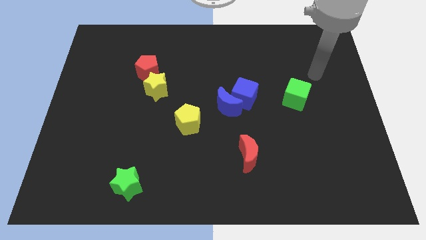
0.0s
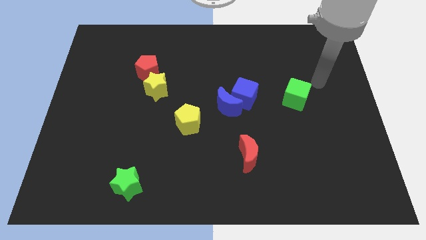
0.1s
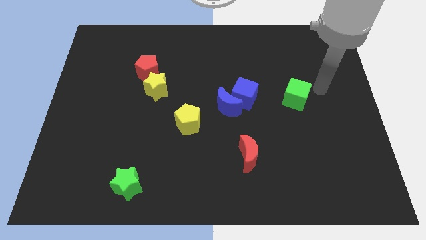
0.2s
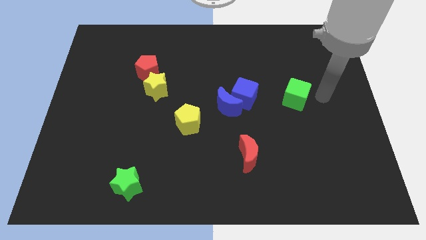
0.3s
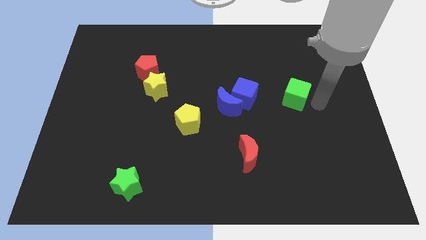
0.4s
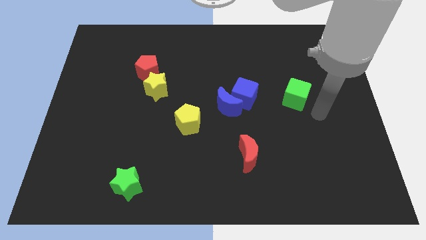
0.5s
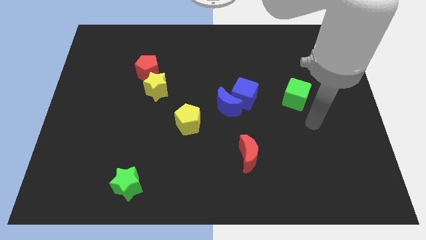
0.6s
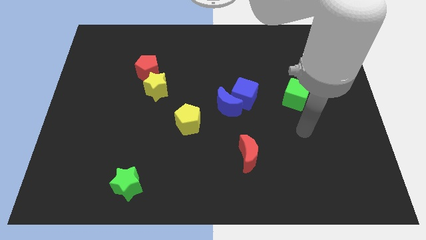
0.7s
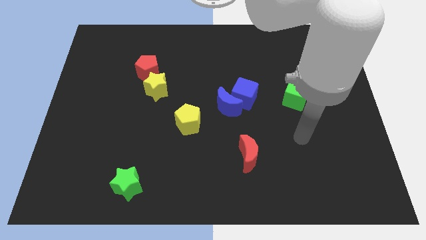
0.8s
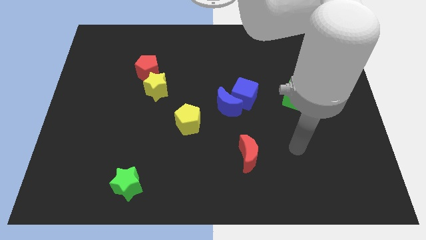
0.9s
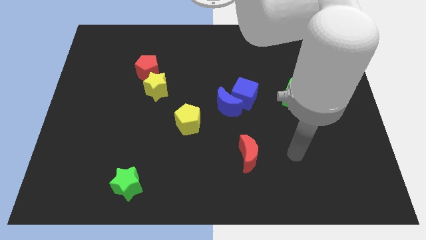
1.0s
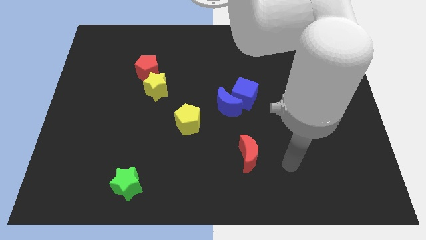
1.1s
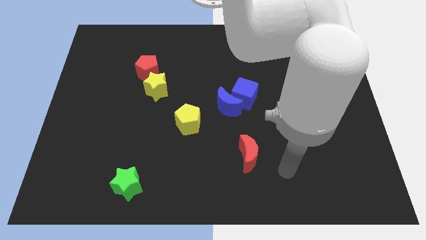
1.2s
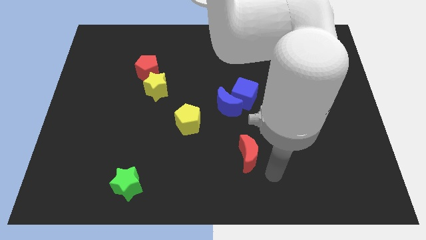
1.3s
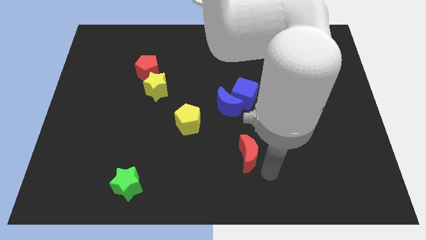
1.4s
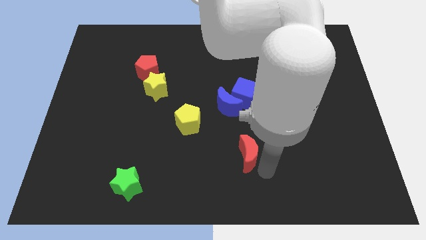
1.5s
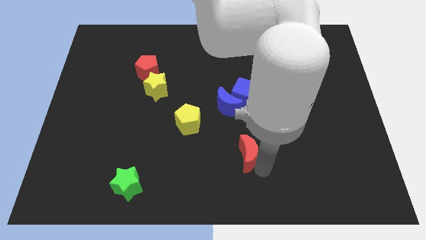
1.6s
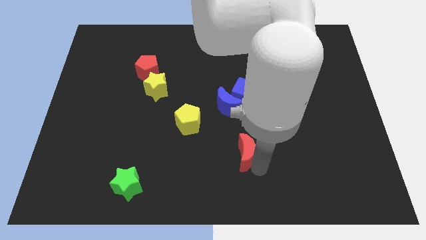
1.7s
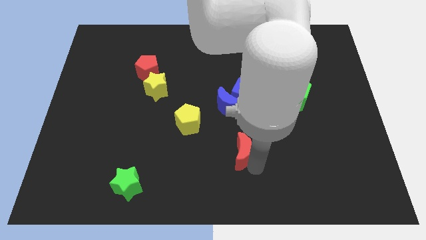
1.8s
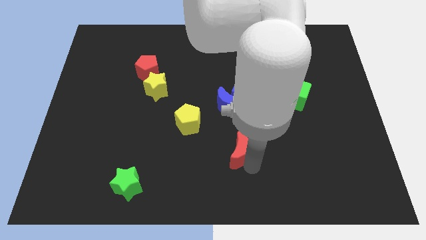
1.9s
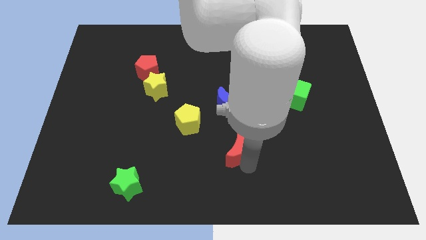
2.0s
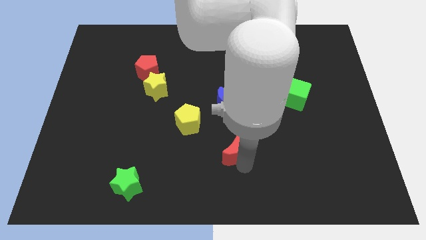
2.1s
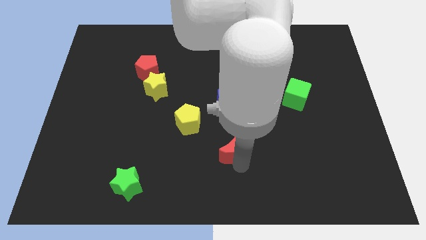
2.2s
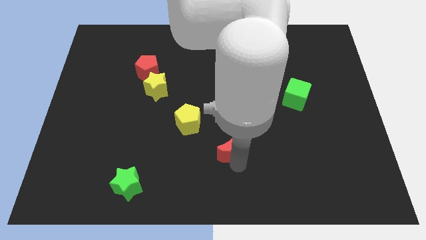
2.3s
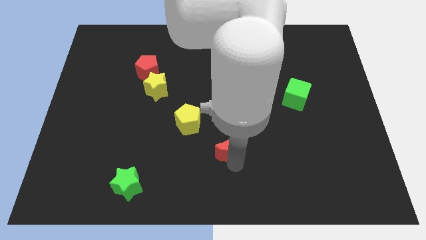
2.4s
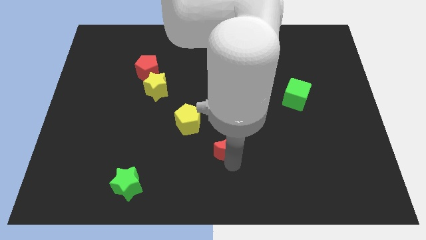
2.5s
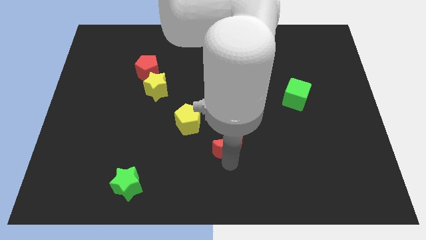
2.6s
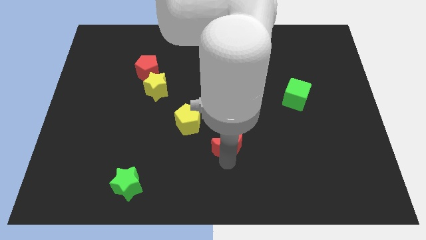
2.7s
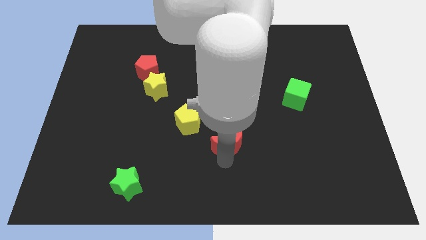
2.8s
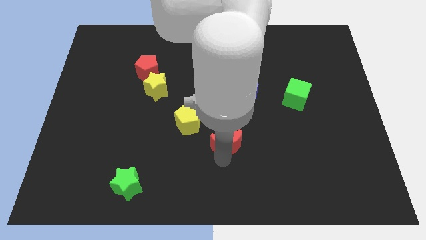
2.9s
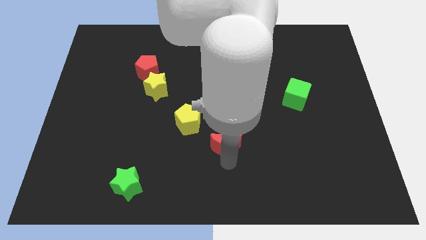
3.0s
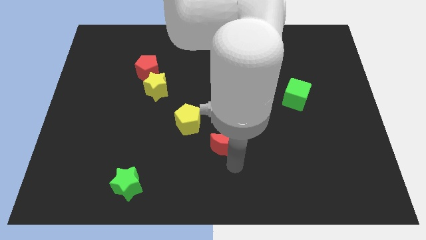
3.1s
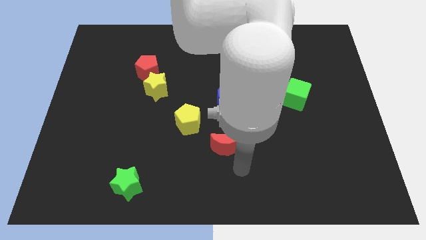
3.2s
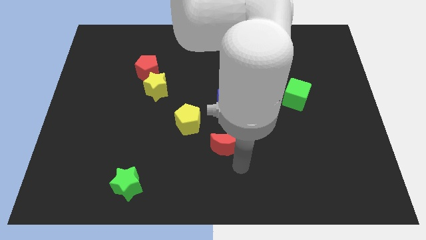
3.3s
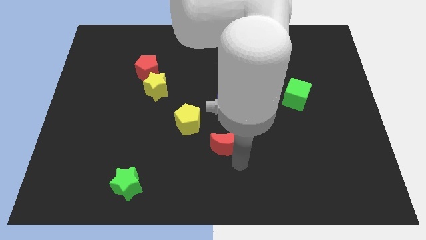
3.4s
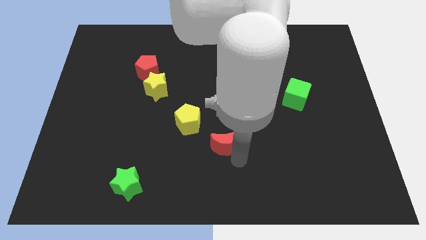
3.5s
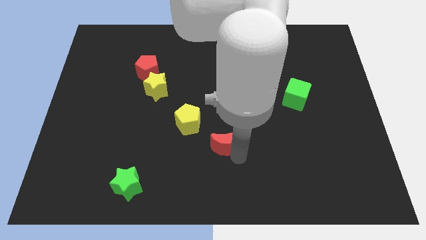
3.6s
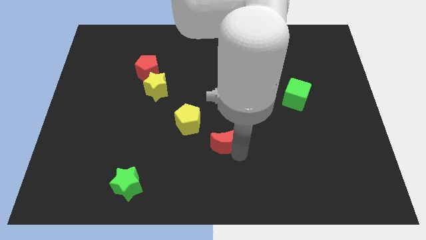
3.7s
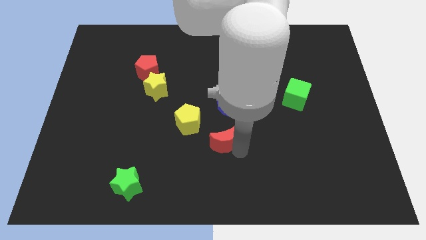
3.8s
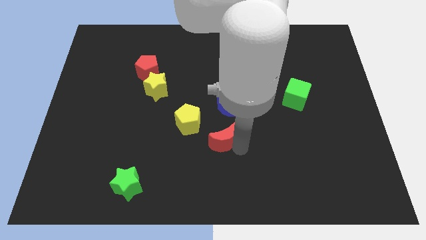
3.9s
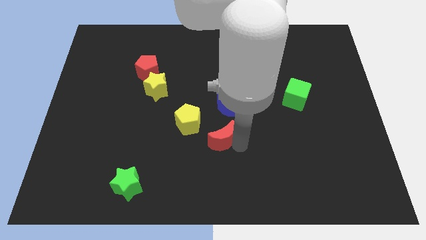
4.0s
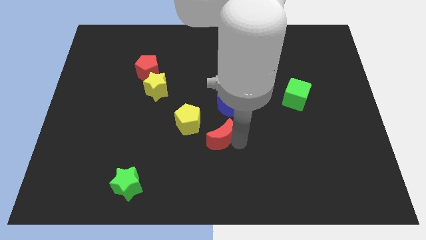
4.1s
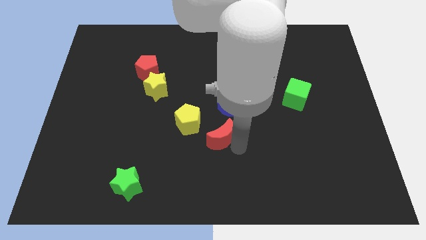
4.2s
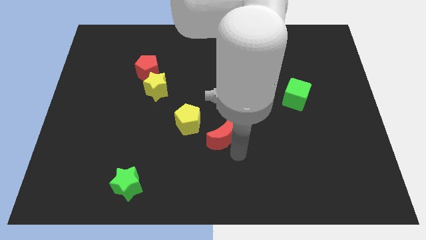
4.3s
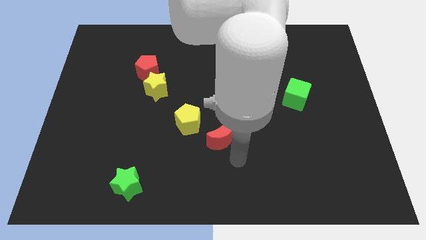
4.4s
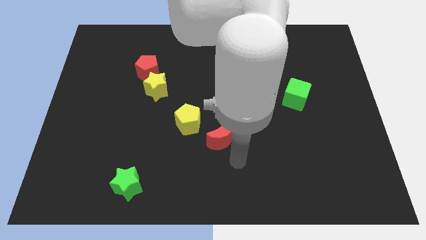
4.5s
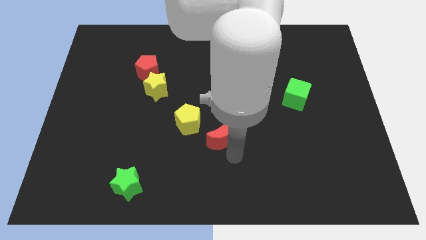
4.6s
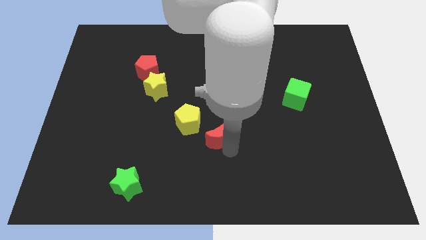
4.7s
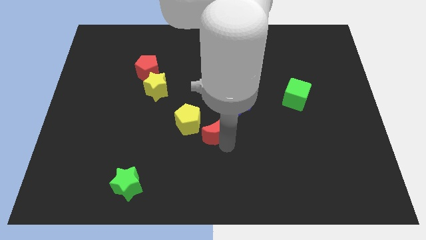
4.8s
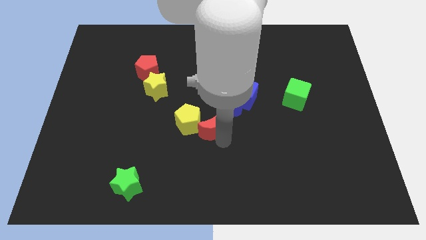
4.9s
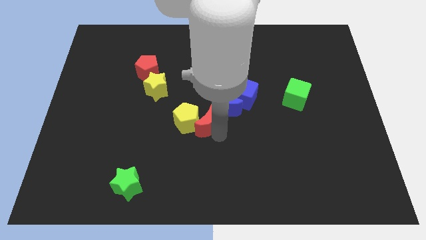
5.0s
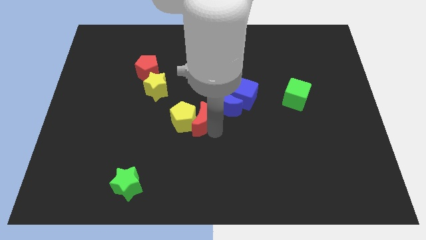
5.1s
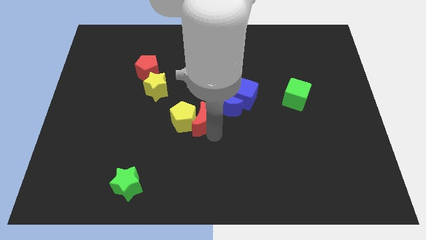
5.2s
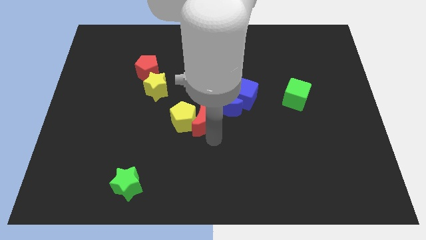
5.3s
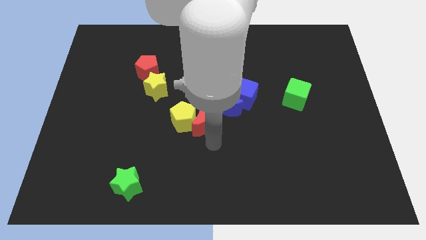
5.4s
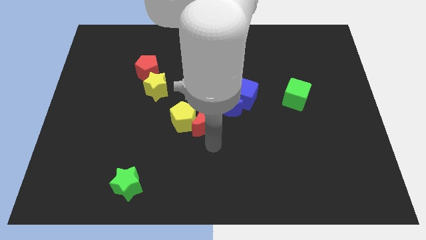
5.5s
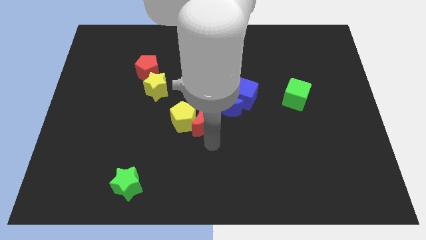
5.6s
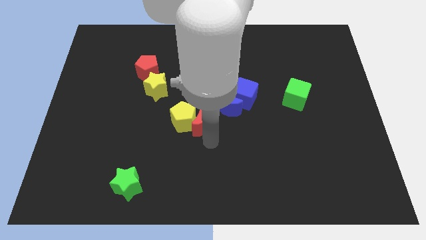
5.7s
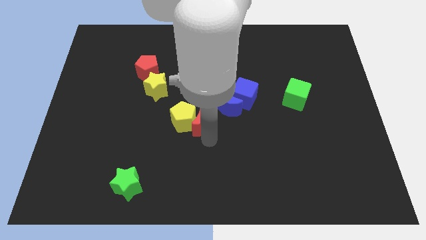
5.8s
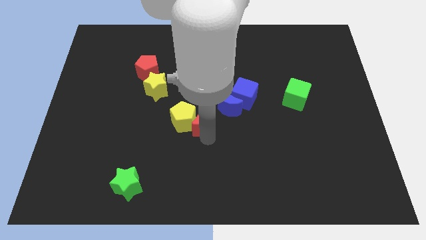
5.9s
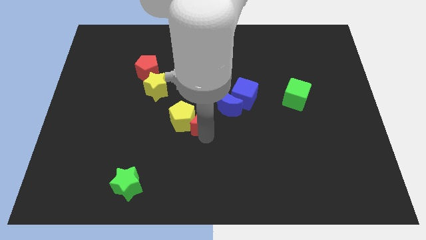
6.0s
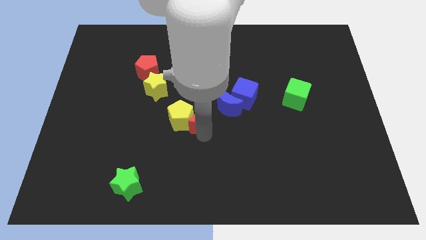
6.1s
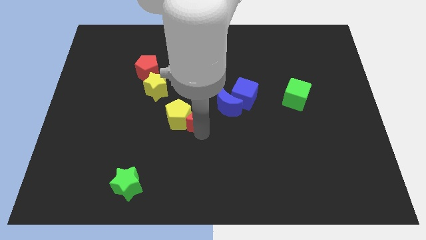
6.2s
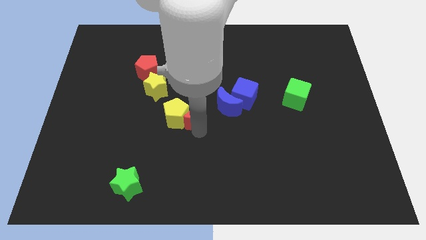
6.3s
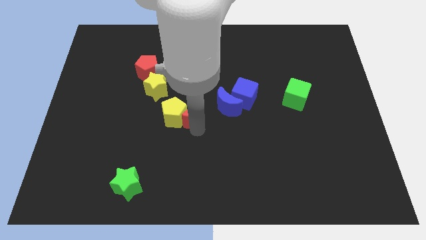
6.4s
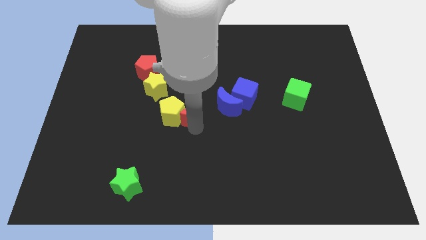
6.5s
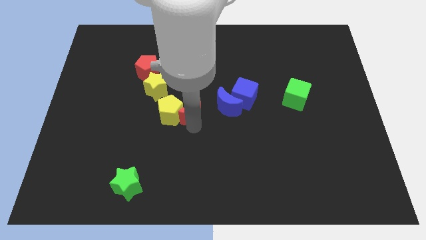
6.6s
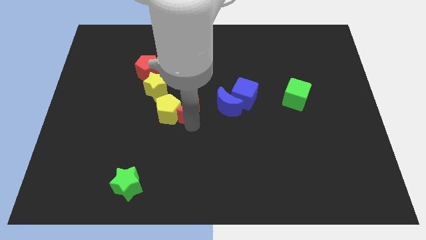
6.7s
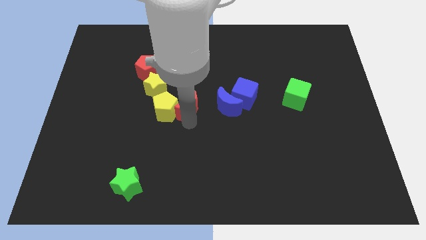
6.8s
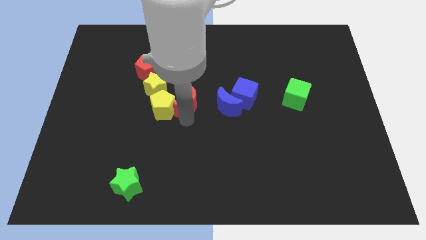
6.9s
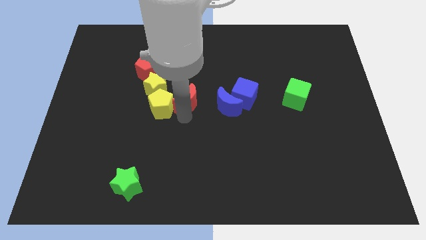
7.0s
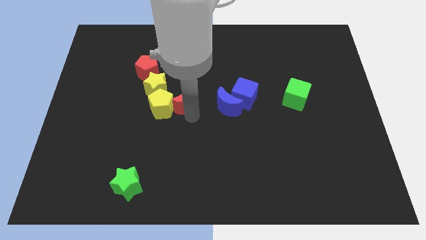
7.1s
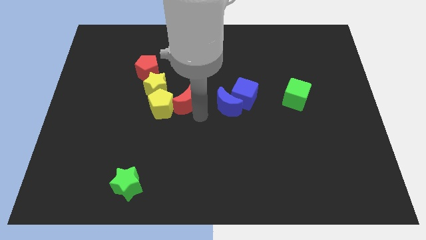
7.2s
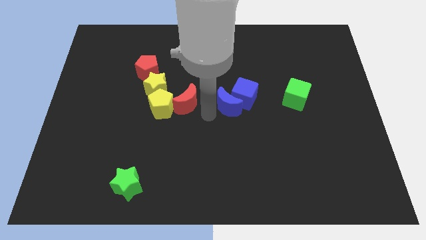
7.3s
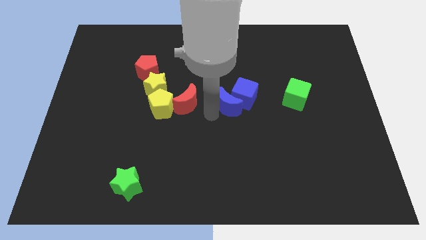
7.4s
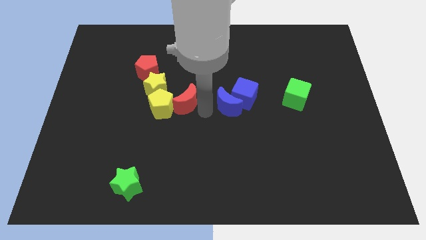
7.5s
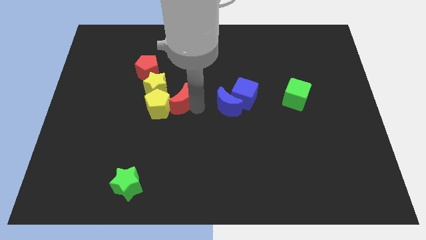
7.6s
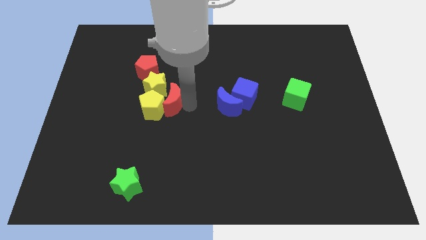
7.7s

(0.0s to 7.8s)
slide the red moon close to the yellow star
